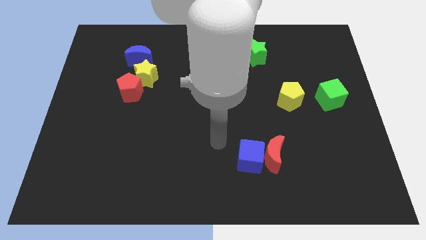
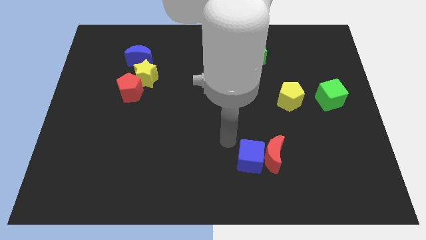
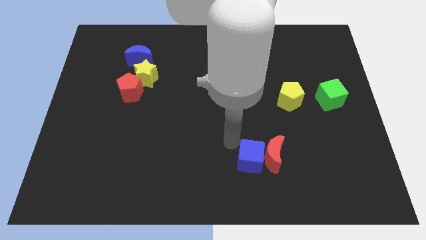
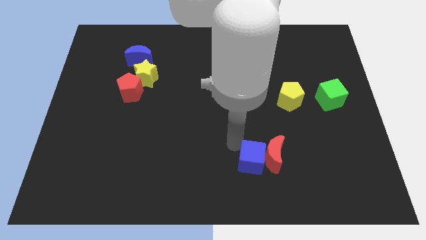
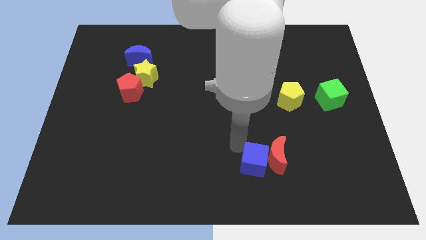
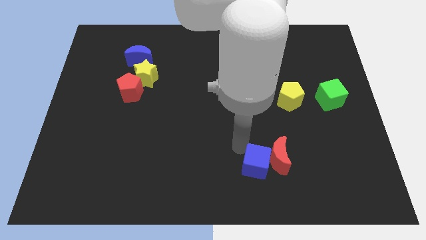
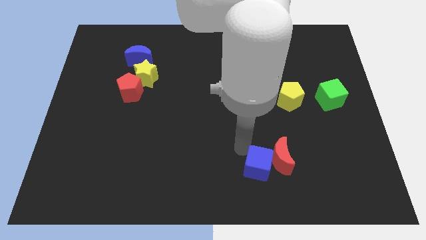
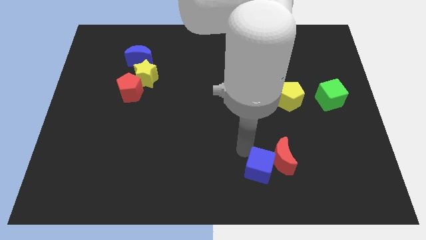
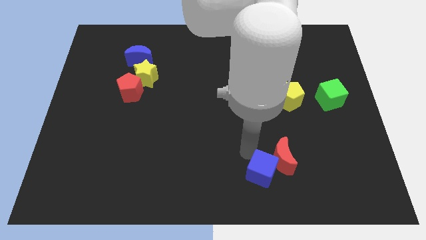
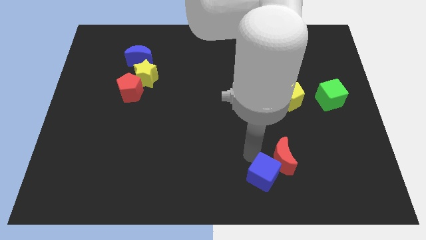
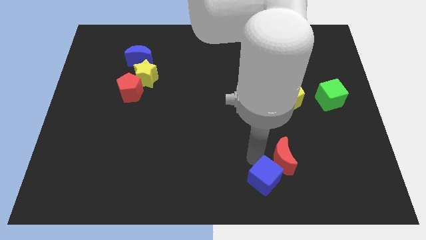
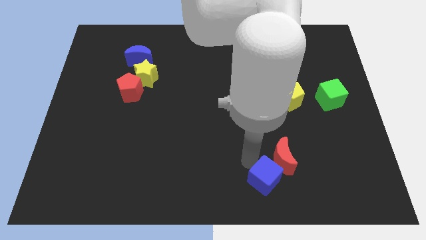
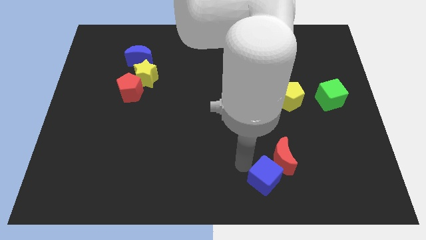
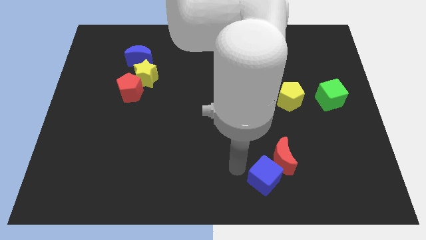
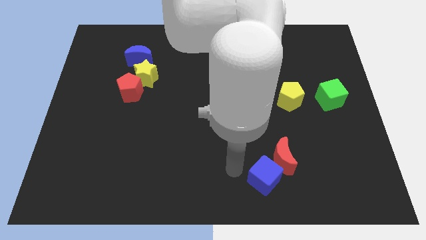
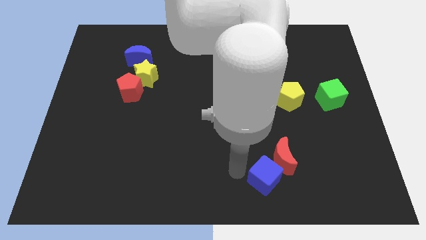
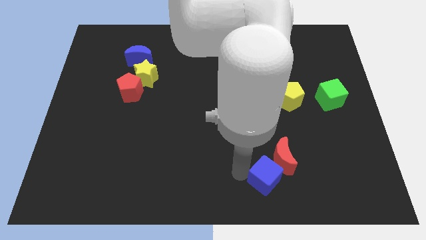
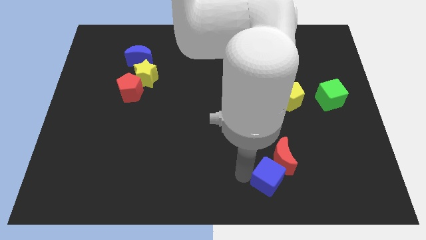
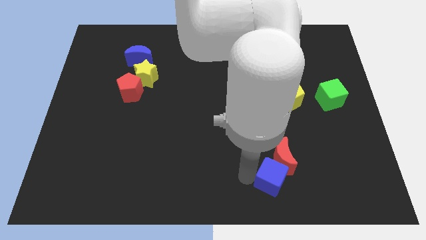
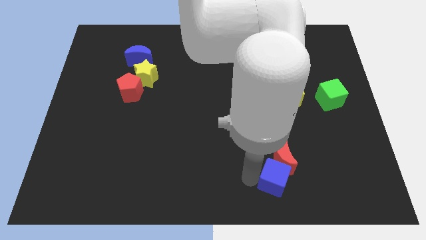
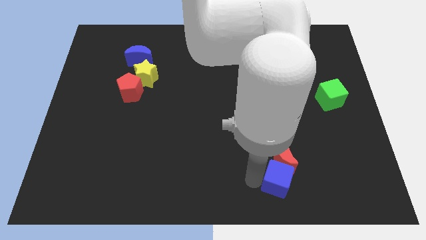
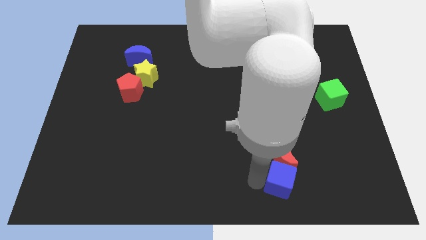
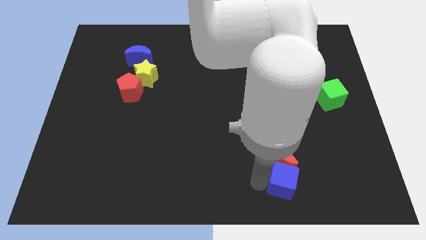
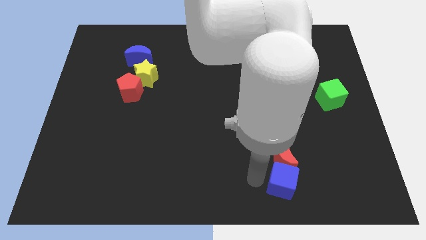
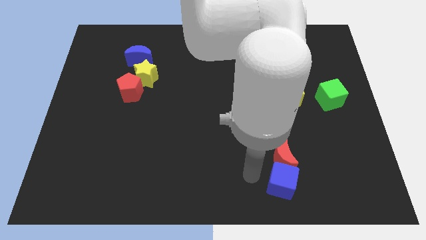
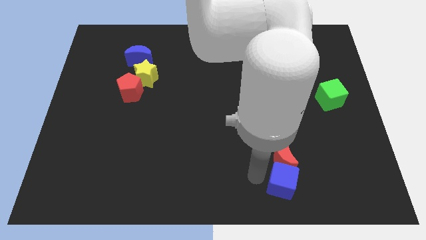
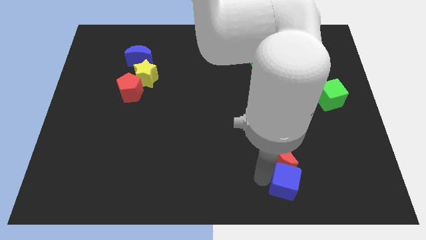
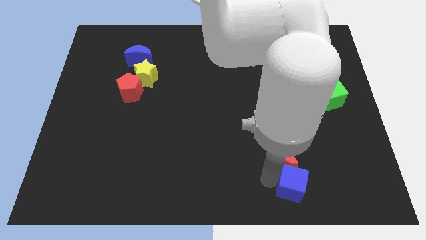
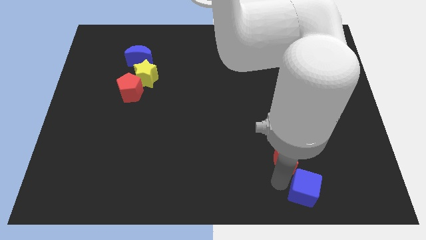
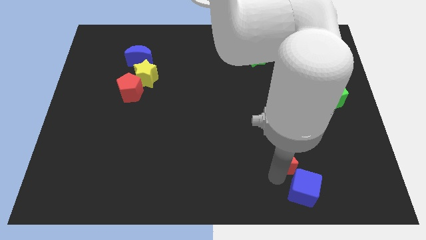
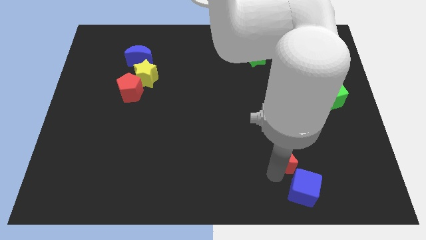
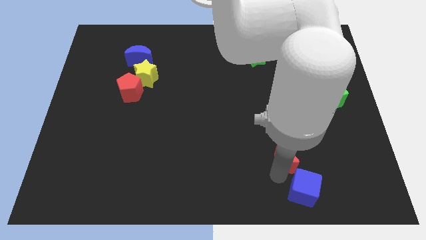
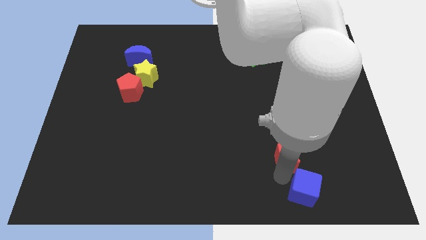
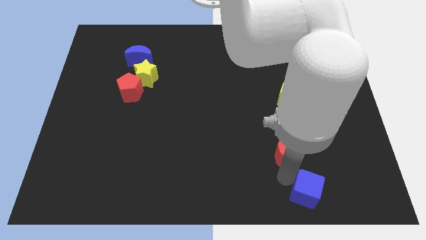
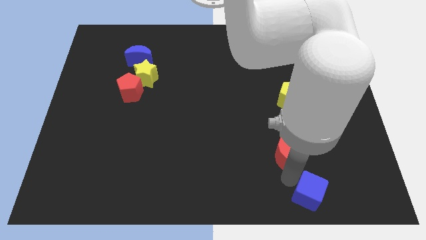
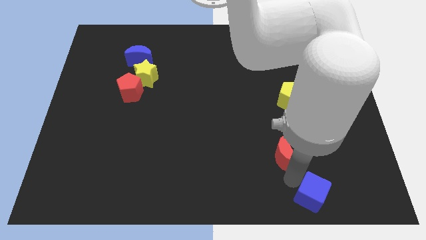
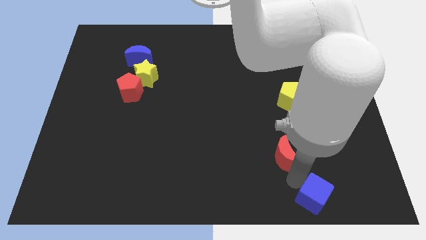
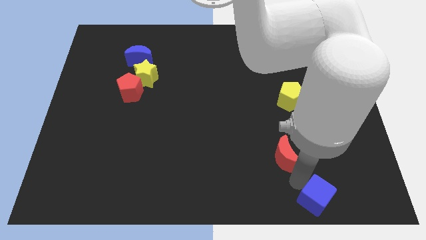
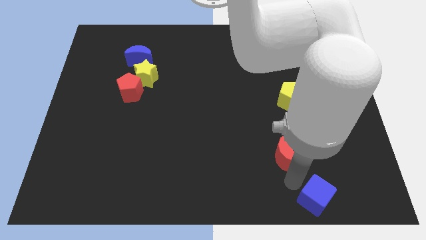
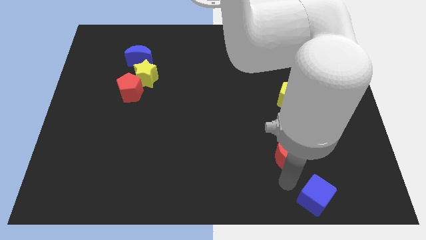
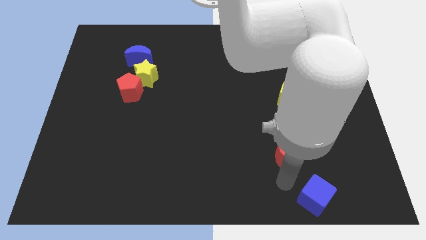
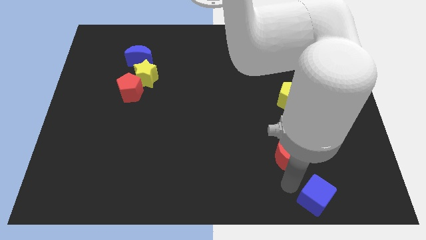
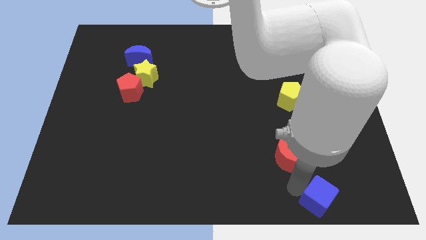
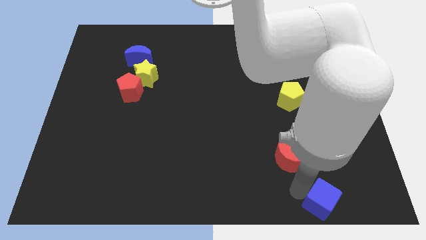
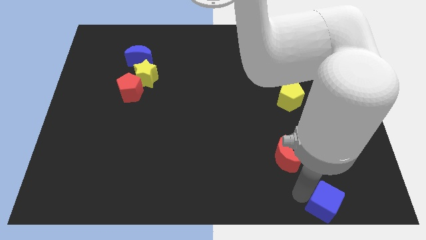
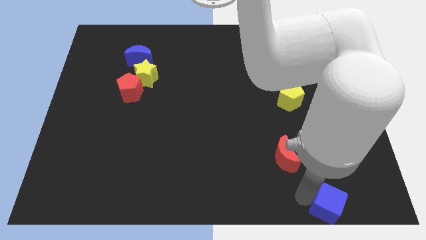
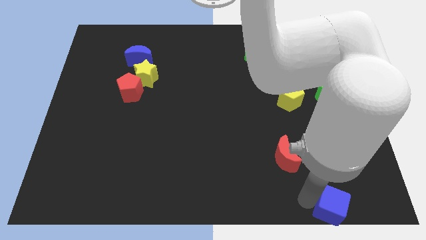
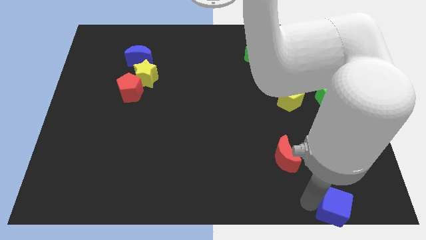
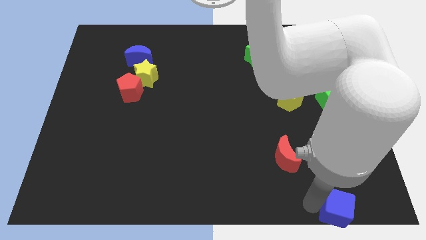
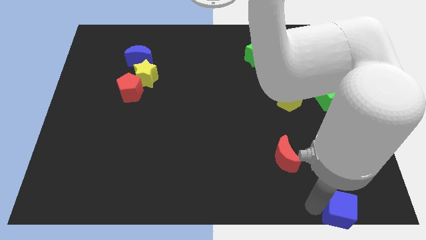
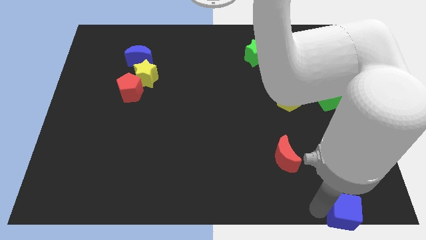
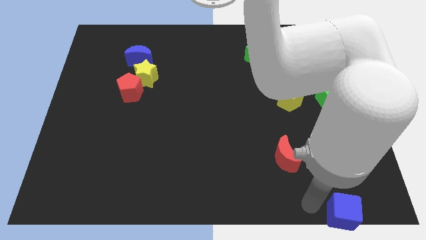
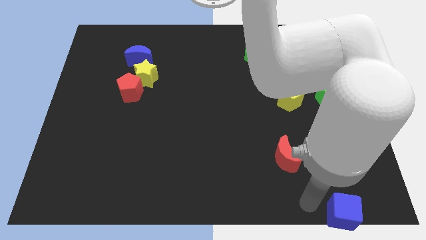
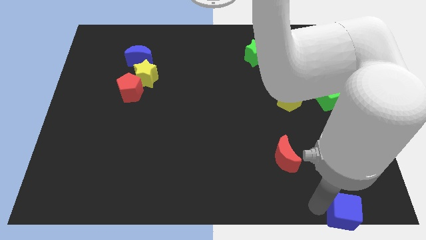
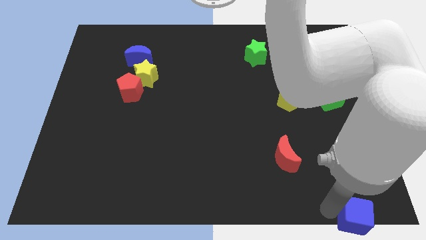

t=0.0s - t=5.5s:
push the blue cube to the bottom right

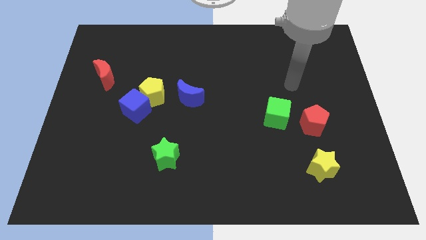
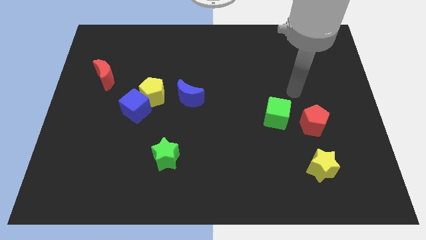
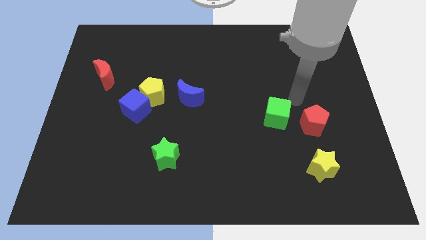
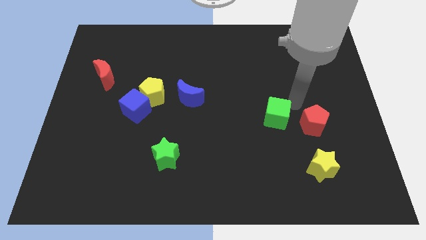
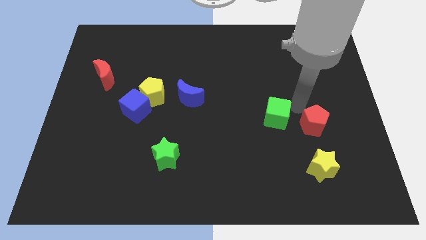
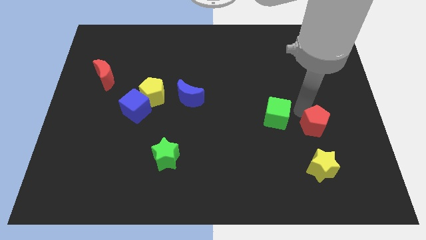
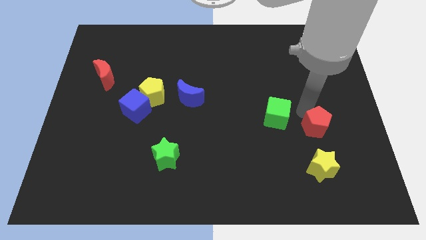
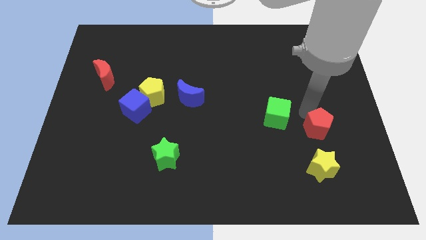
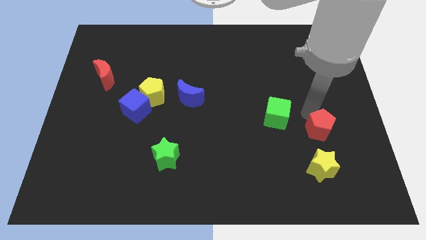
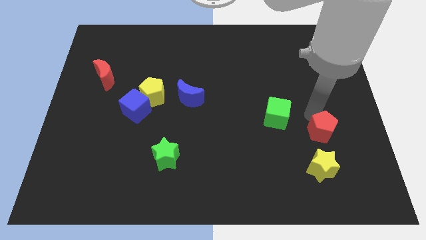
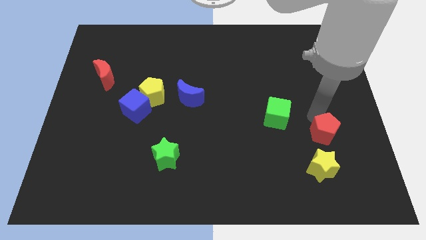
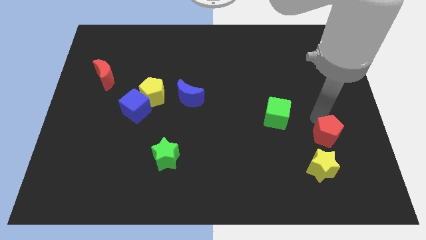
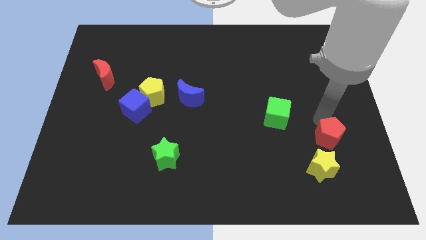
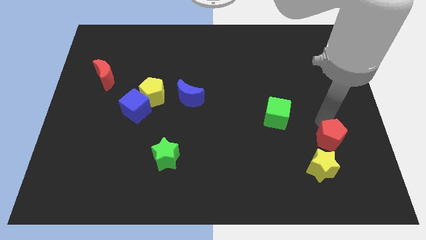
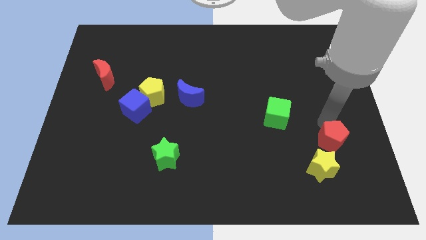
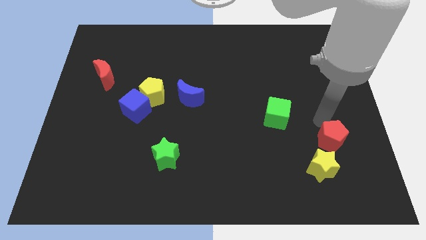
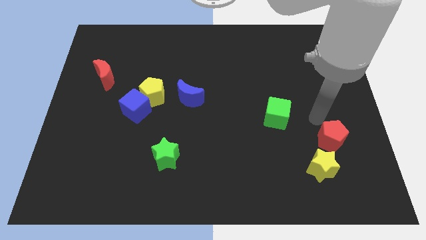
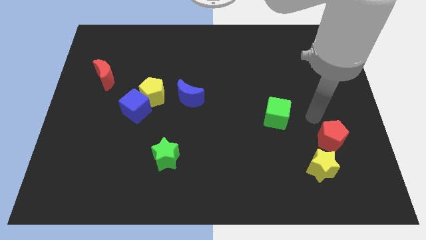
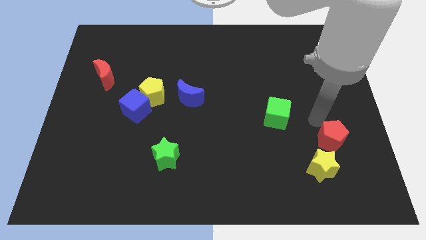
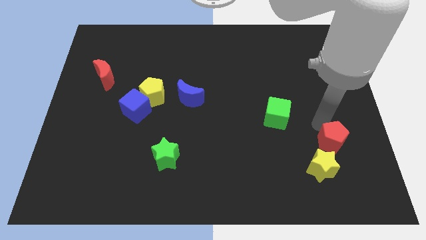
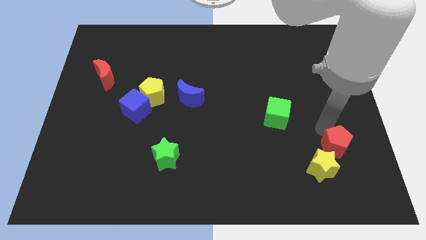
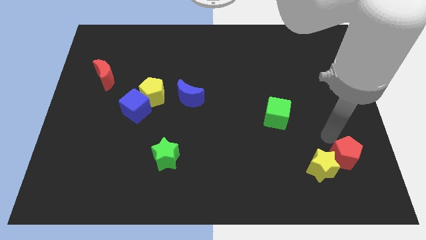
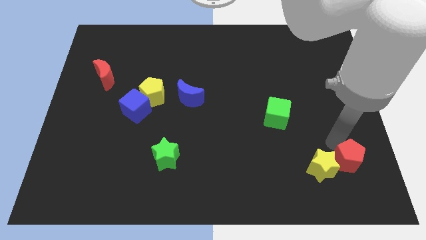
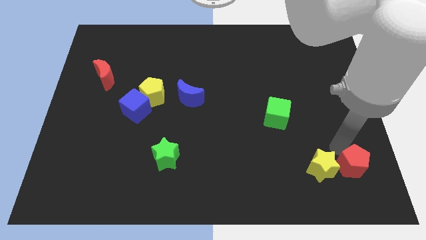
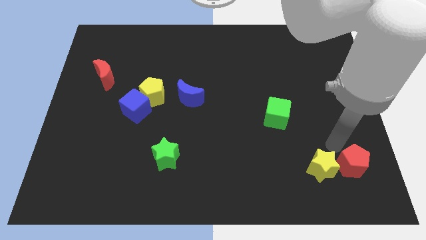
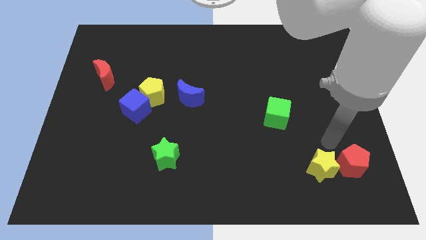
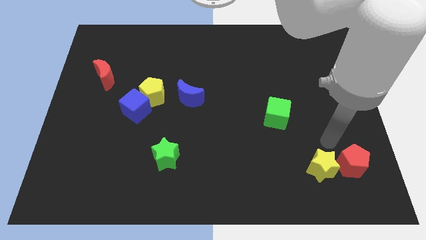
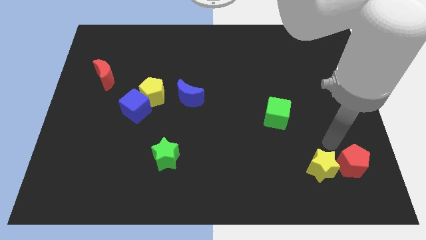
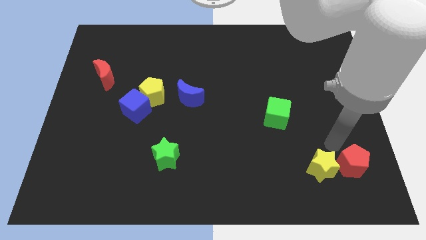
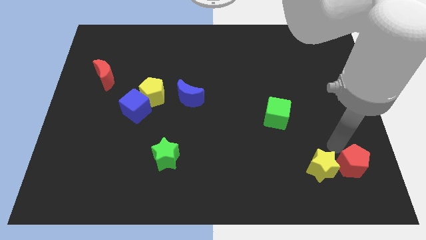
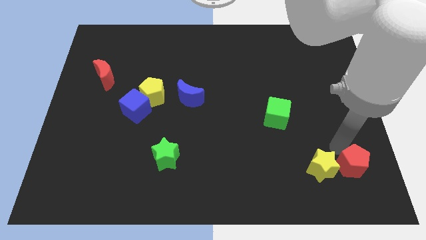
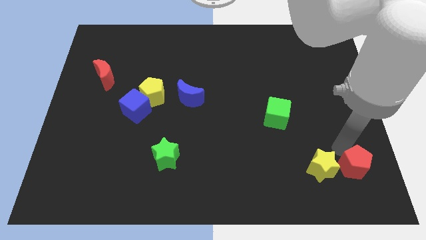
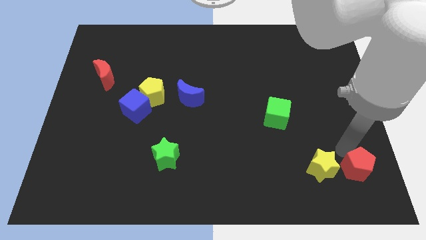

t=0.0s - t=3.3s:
slide the red pentagon to the bottom right corner
